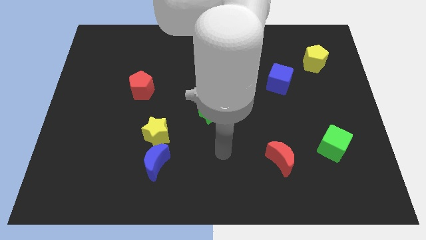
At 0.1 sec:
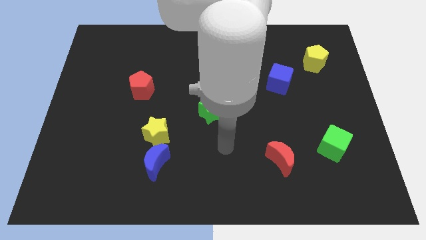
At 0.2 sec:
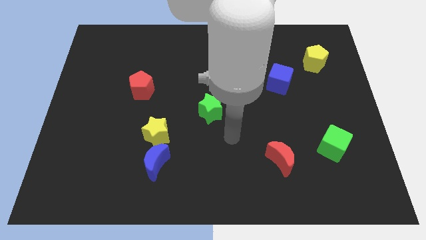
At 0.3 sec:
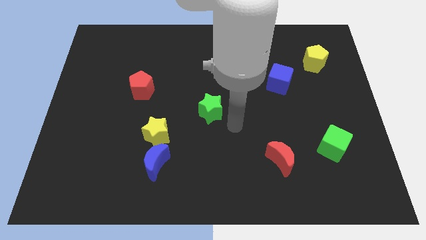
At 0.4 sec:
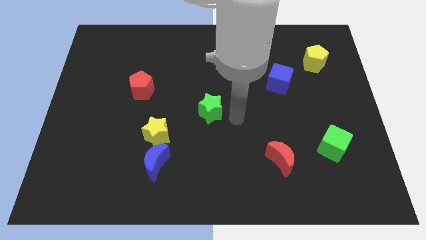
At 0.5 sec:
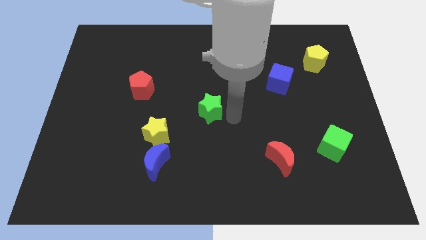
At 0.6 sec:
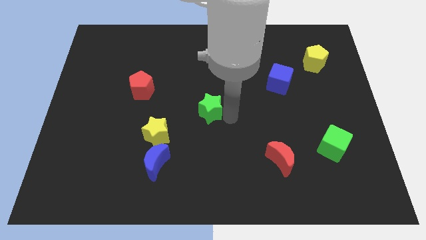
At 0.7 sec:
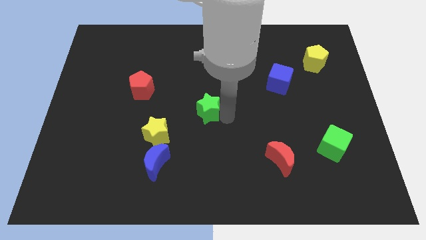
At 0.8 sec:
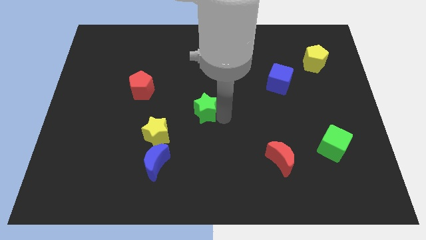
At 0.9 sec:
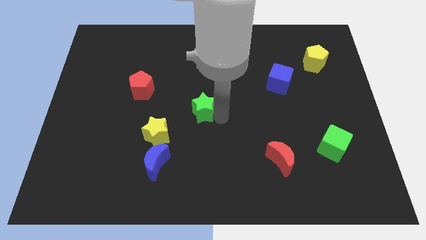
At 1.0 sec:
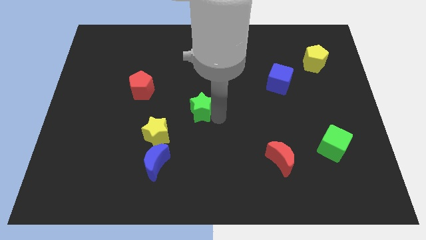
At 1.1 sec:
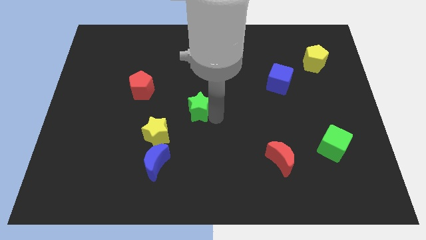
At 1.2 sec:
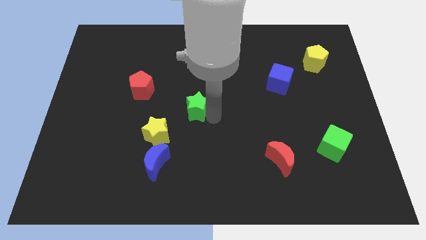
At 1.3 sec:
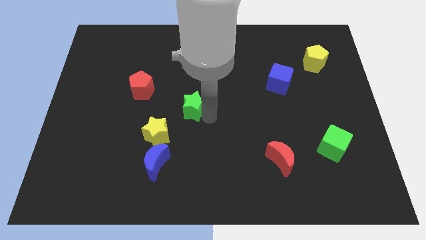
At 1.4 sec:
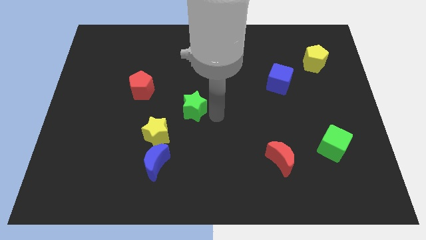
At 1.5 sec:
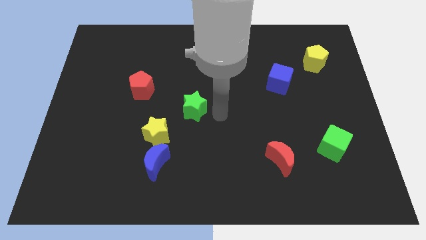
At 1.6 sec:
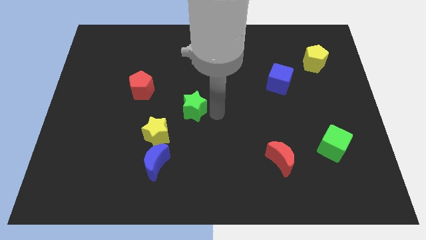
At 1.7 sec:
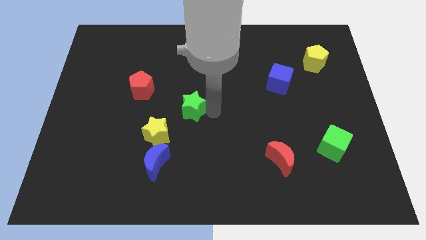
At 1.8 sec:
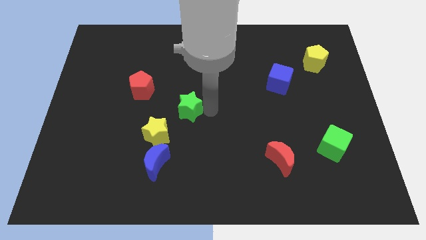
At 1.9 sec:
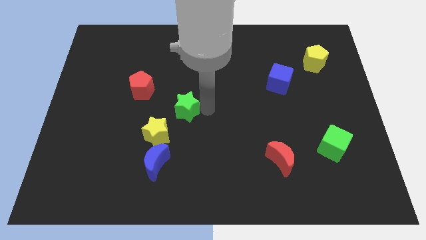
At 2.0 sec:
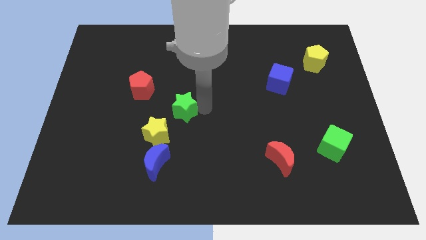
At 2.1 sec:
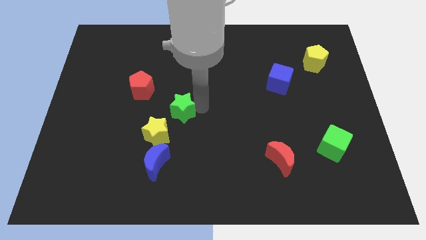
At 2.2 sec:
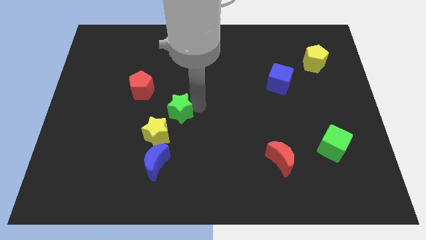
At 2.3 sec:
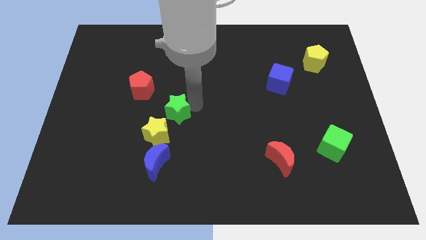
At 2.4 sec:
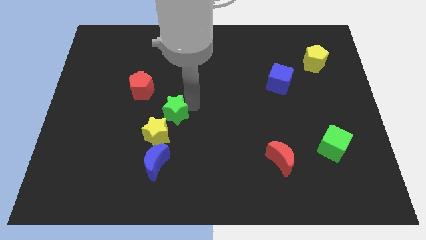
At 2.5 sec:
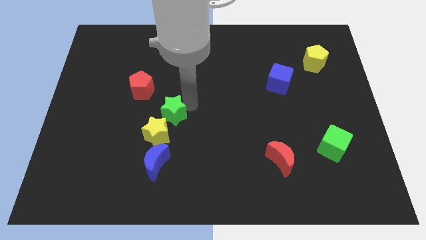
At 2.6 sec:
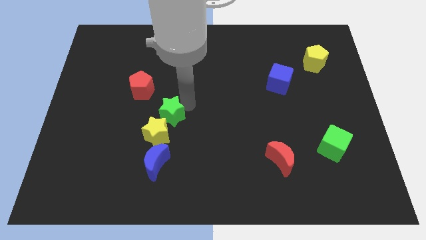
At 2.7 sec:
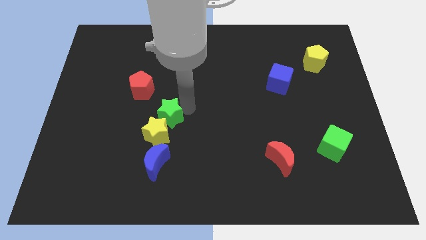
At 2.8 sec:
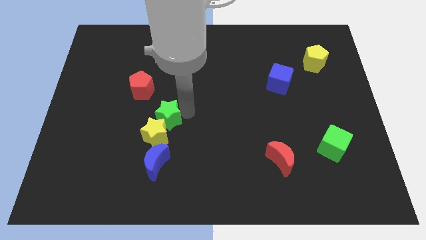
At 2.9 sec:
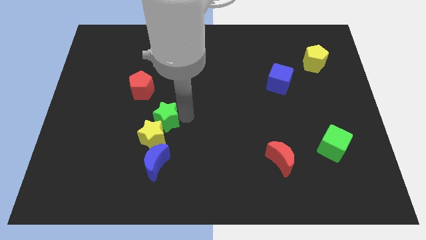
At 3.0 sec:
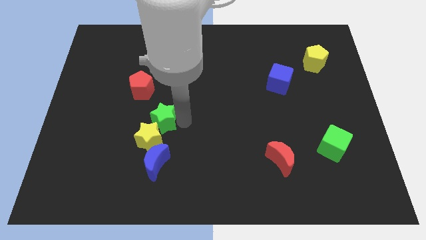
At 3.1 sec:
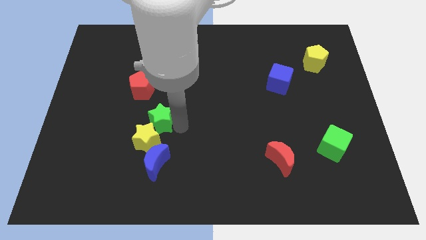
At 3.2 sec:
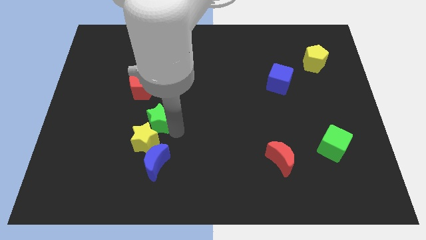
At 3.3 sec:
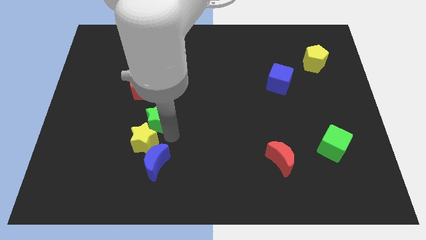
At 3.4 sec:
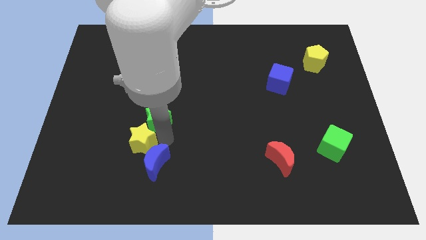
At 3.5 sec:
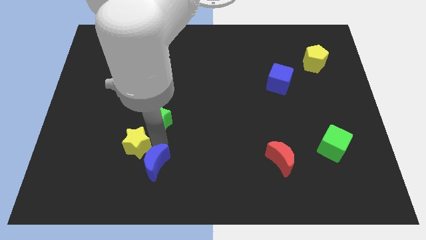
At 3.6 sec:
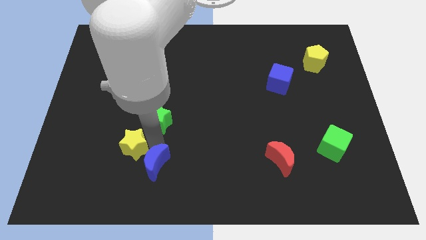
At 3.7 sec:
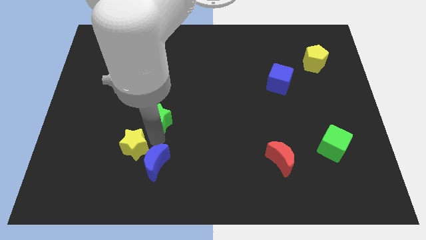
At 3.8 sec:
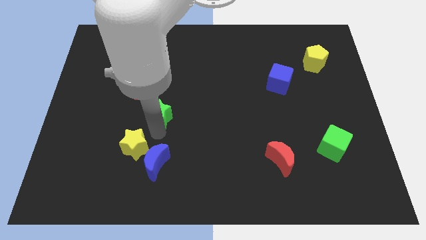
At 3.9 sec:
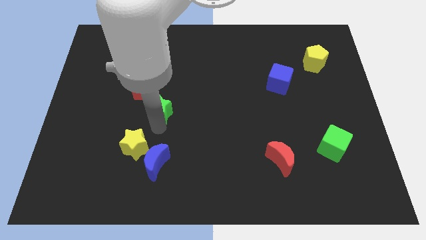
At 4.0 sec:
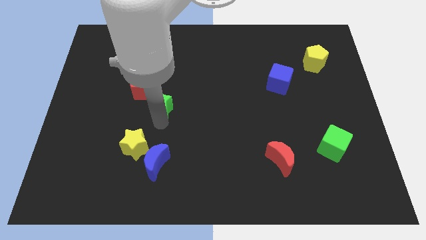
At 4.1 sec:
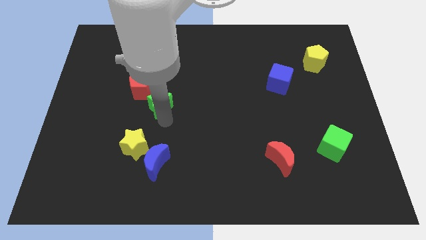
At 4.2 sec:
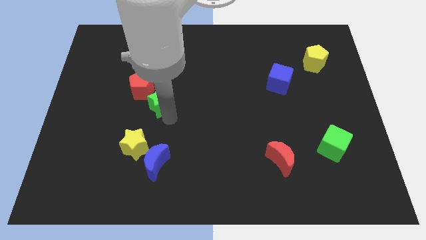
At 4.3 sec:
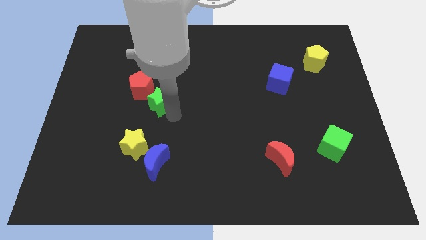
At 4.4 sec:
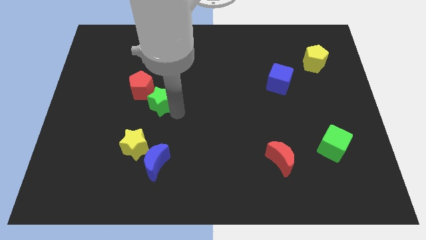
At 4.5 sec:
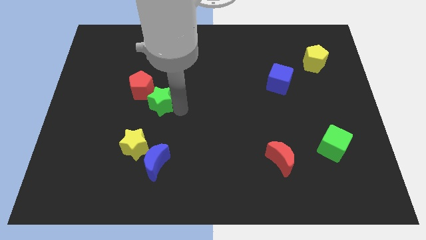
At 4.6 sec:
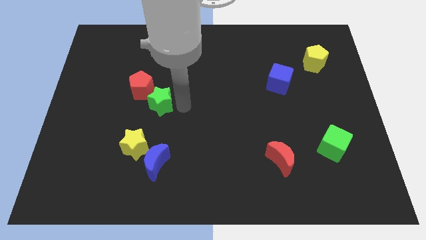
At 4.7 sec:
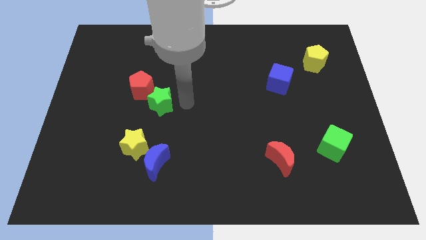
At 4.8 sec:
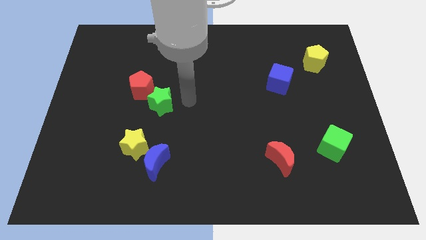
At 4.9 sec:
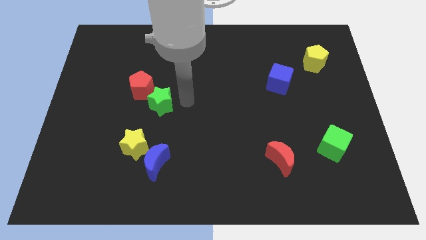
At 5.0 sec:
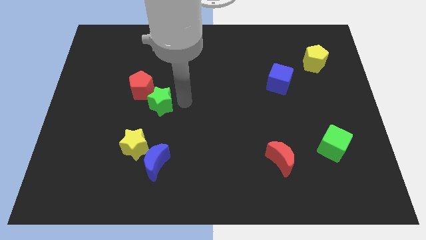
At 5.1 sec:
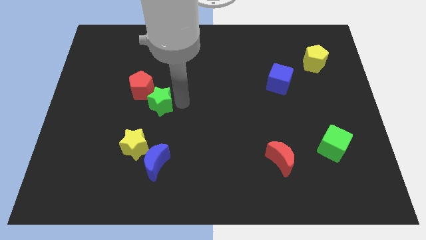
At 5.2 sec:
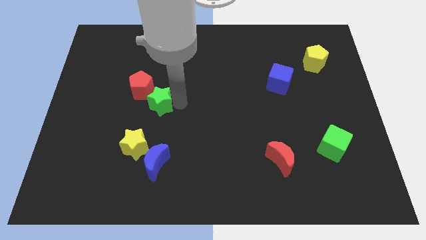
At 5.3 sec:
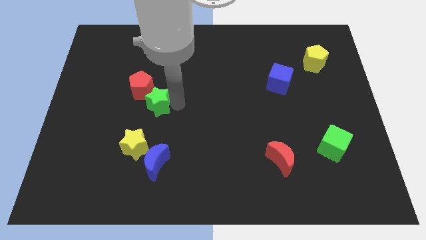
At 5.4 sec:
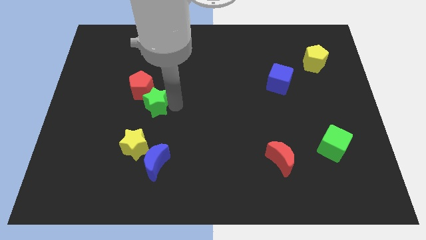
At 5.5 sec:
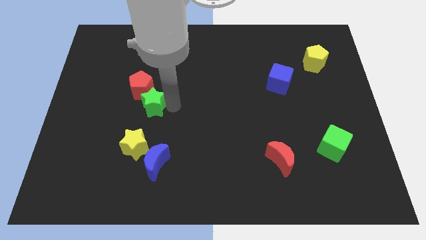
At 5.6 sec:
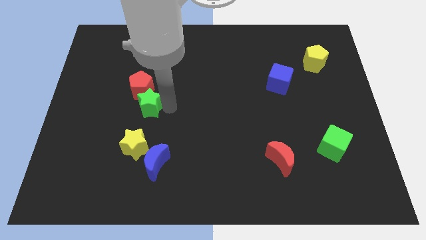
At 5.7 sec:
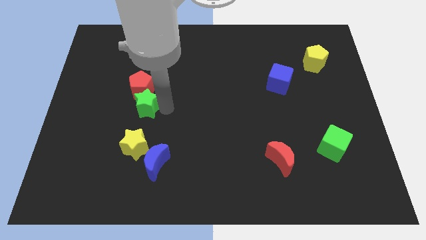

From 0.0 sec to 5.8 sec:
move the green star diagonally down and to the left of the red pentagon

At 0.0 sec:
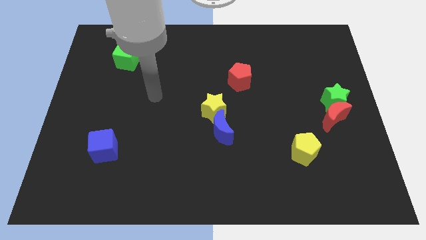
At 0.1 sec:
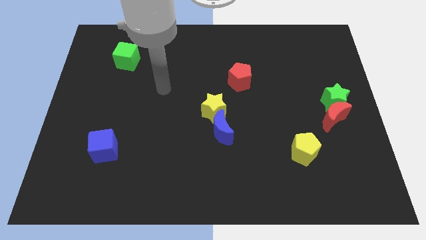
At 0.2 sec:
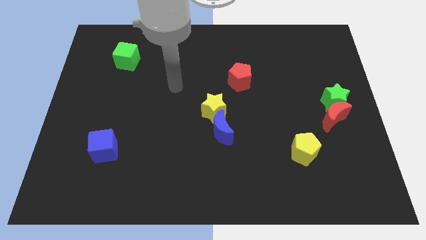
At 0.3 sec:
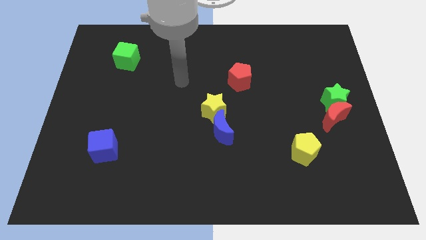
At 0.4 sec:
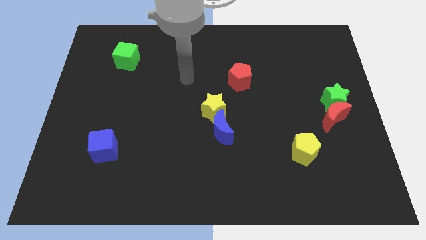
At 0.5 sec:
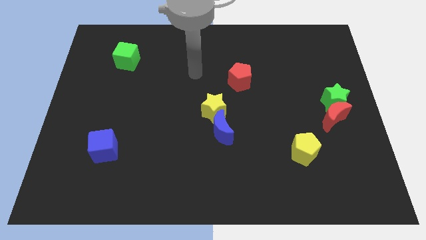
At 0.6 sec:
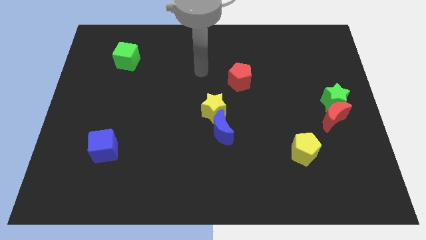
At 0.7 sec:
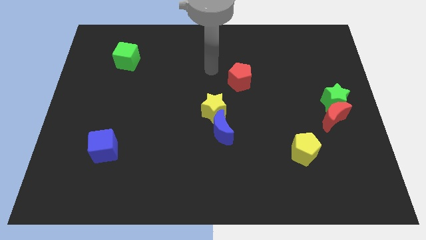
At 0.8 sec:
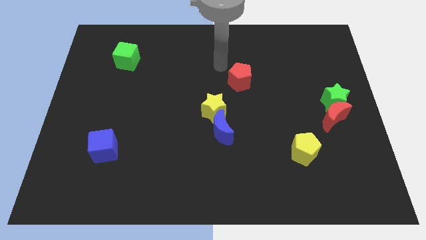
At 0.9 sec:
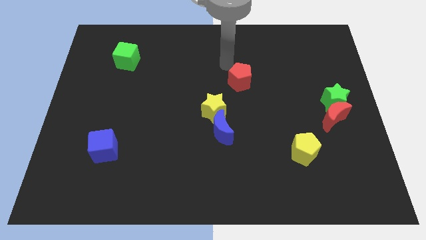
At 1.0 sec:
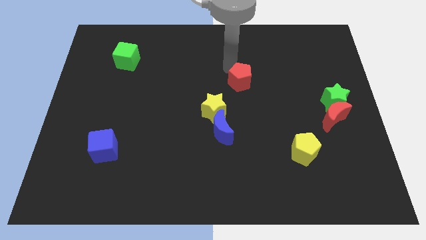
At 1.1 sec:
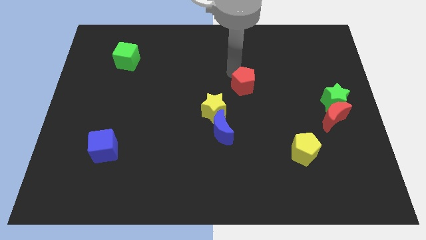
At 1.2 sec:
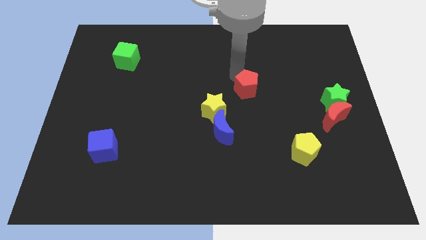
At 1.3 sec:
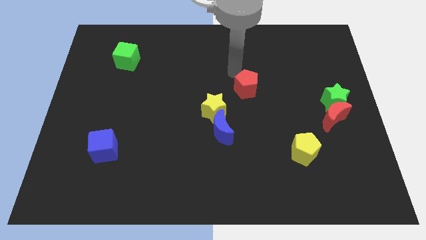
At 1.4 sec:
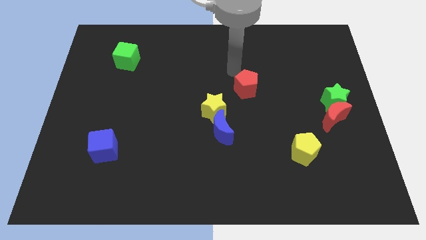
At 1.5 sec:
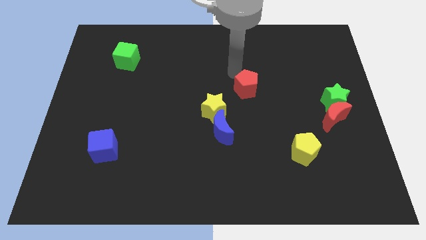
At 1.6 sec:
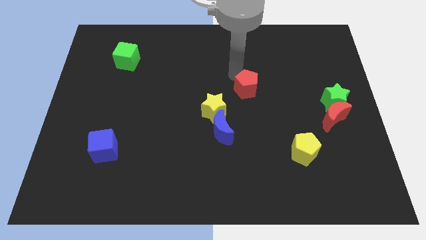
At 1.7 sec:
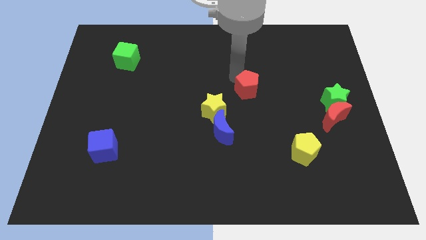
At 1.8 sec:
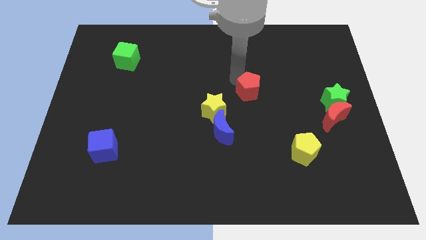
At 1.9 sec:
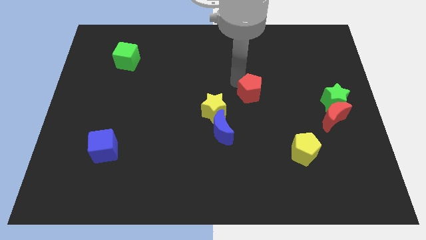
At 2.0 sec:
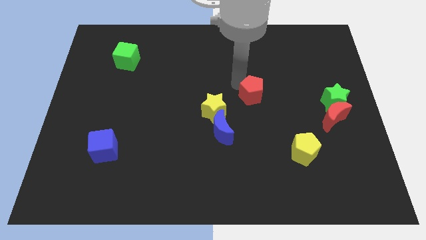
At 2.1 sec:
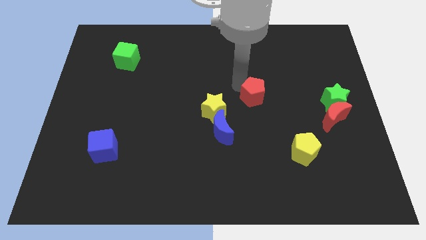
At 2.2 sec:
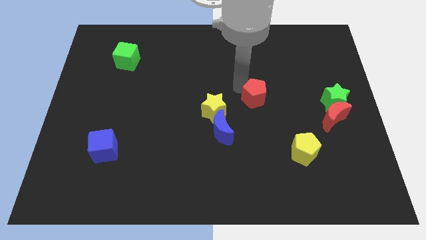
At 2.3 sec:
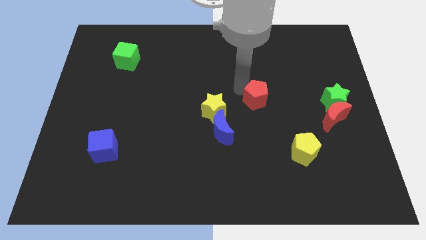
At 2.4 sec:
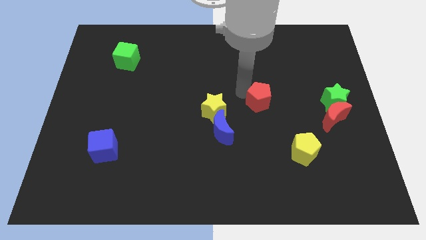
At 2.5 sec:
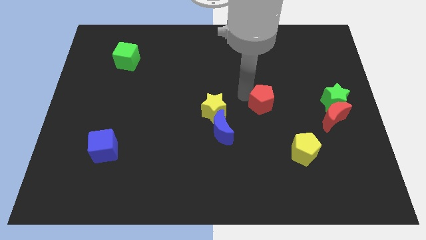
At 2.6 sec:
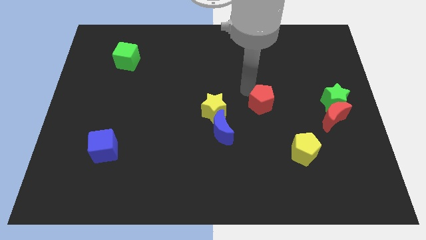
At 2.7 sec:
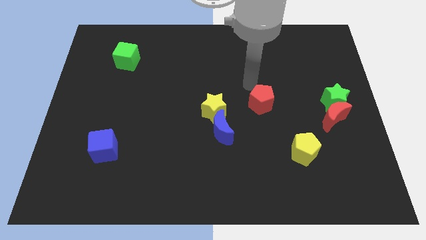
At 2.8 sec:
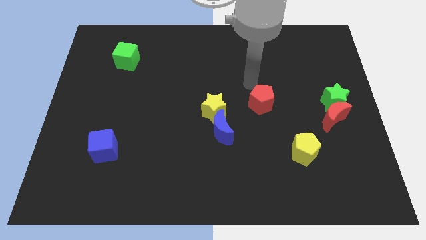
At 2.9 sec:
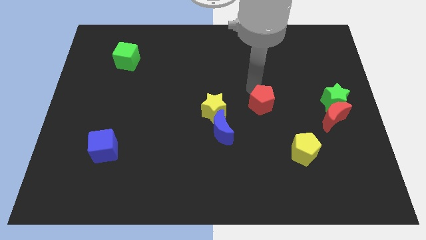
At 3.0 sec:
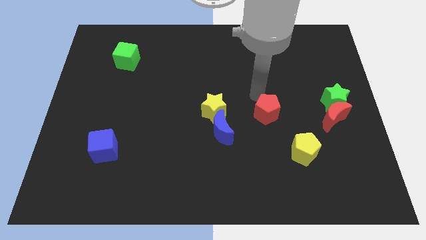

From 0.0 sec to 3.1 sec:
move the red pentagon diagonally up and to the left of the yellow pentagon
